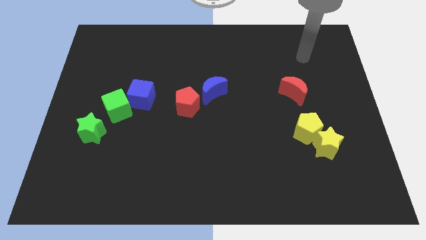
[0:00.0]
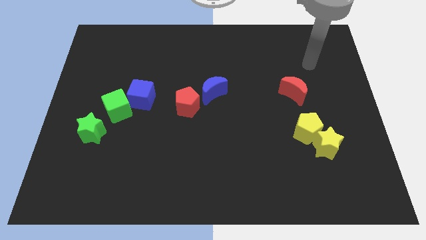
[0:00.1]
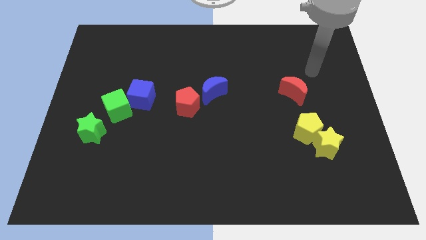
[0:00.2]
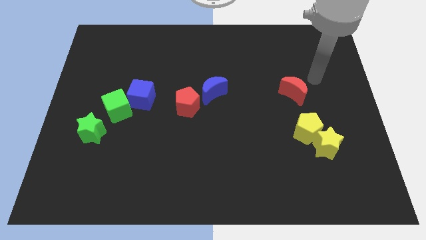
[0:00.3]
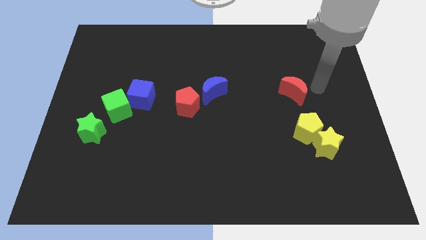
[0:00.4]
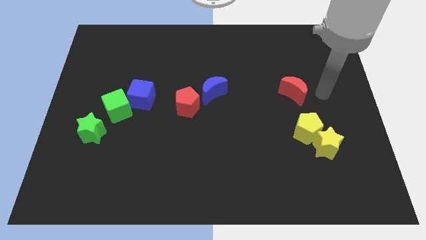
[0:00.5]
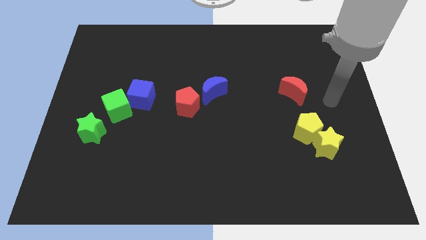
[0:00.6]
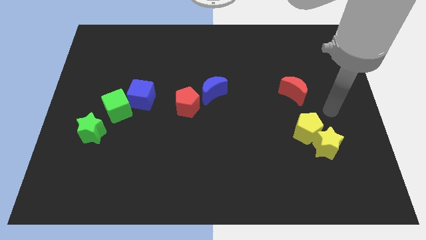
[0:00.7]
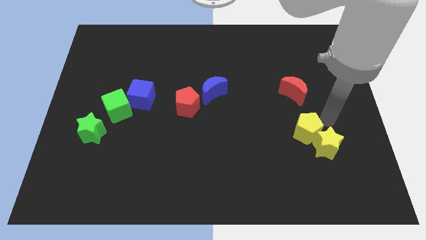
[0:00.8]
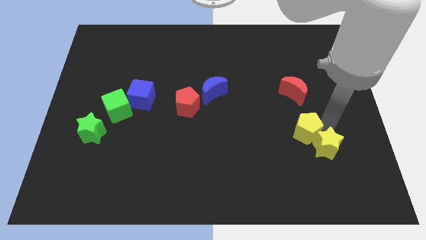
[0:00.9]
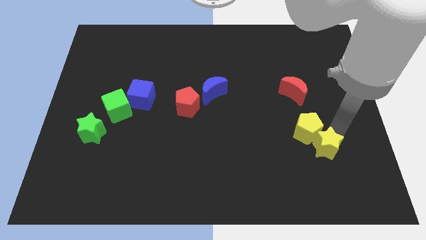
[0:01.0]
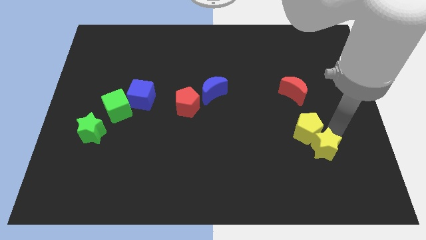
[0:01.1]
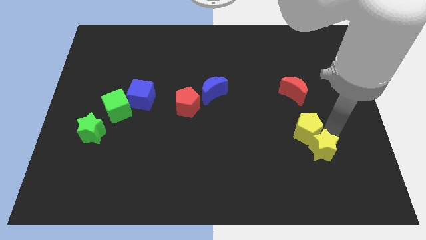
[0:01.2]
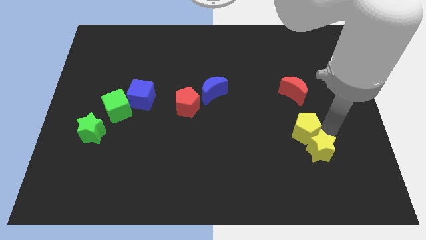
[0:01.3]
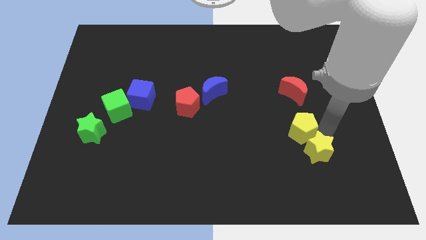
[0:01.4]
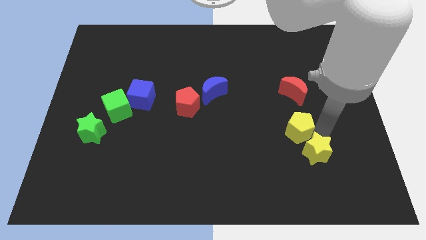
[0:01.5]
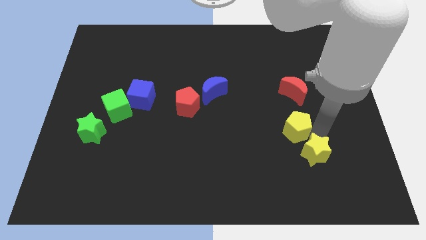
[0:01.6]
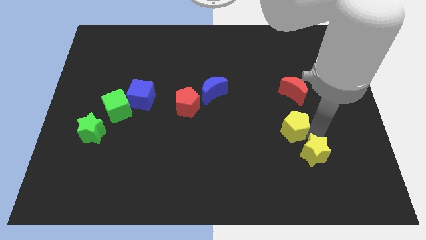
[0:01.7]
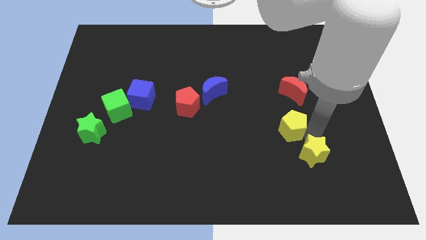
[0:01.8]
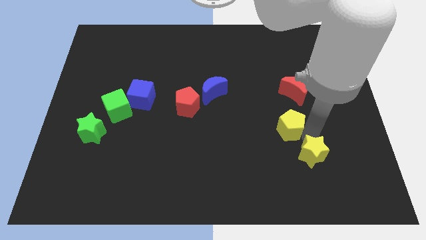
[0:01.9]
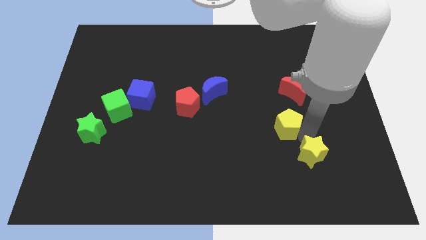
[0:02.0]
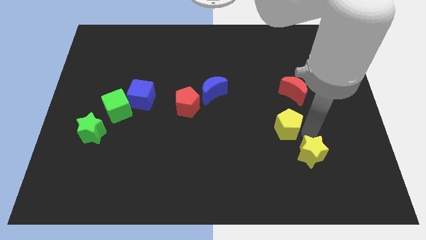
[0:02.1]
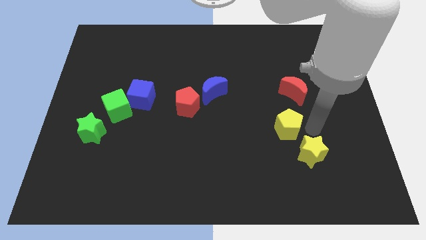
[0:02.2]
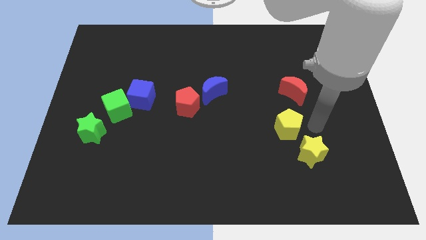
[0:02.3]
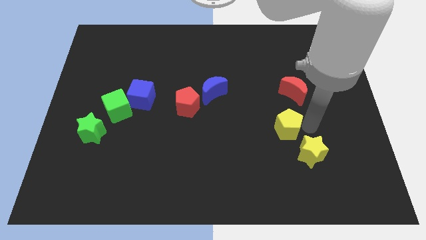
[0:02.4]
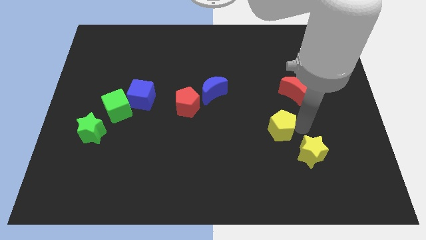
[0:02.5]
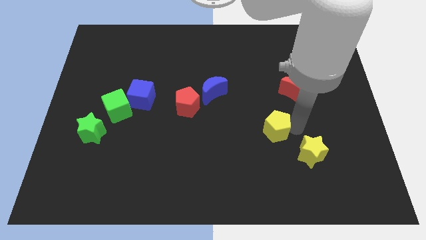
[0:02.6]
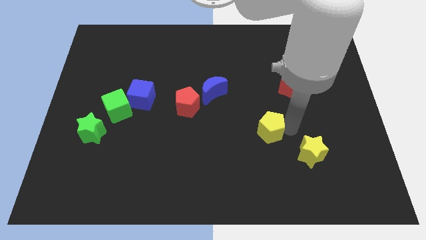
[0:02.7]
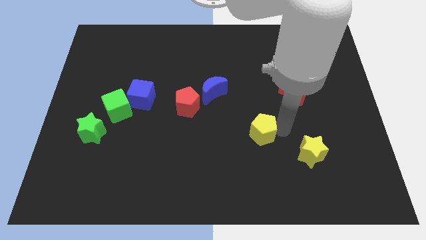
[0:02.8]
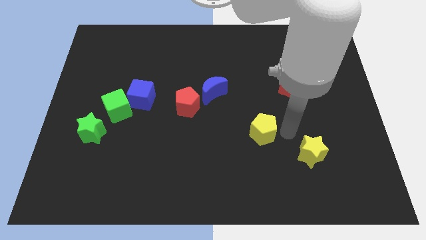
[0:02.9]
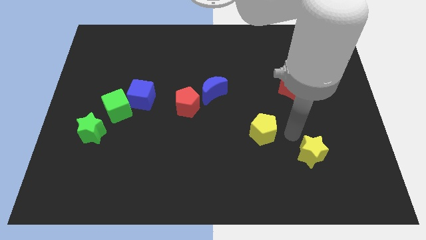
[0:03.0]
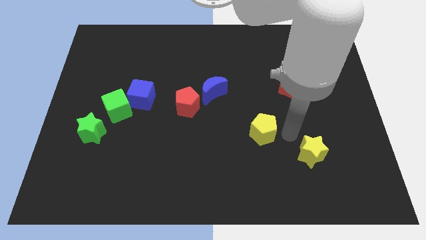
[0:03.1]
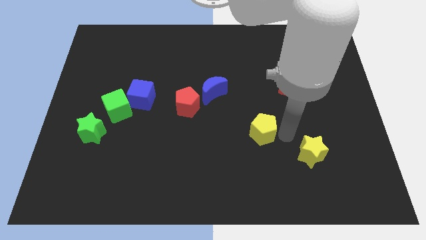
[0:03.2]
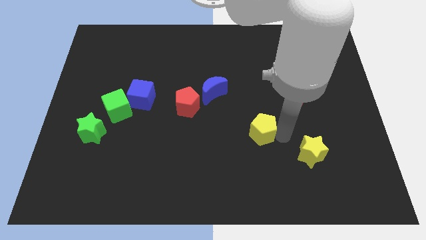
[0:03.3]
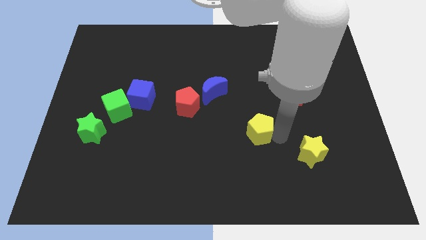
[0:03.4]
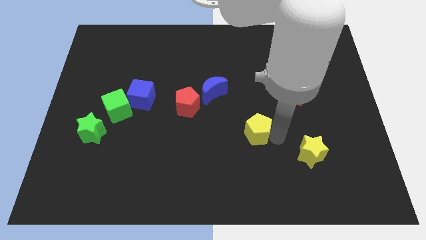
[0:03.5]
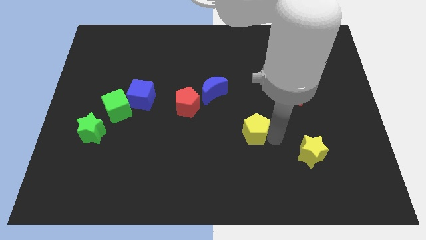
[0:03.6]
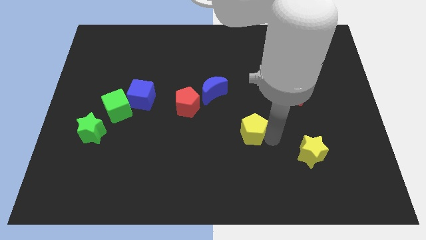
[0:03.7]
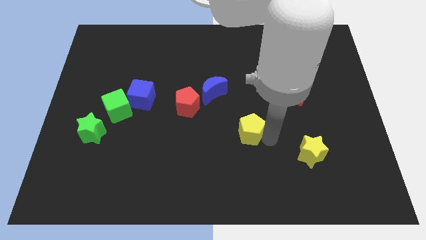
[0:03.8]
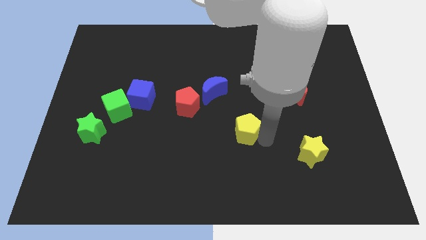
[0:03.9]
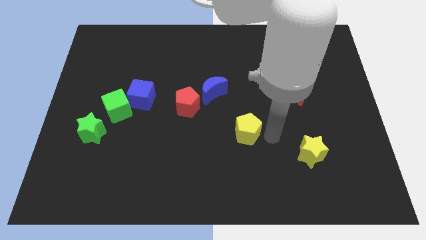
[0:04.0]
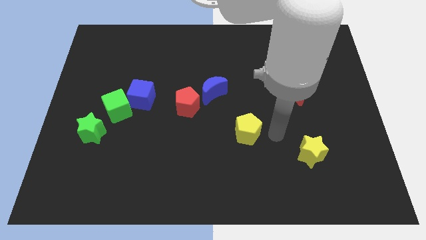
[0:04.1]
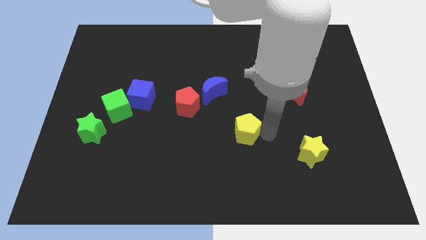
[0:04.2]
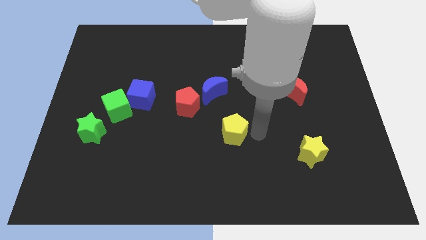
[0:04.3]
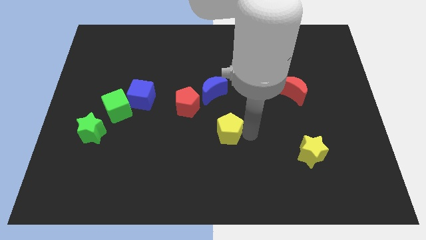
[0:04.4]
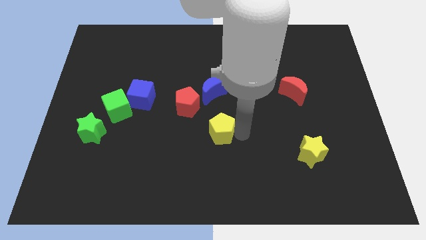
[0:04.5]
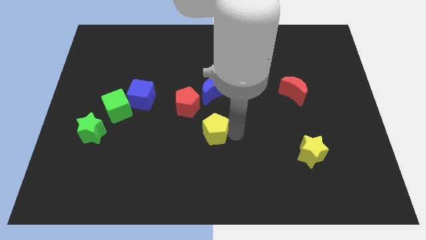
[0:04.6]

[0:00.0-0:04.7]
slide the yellow pentagon to the left

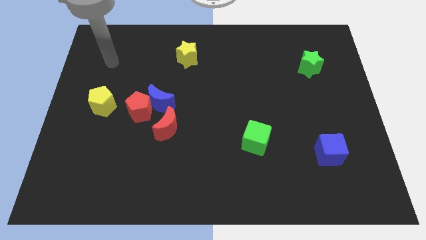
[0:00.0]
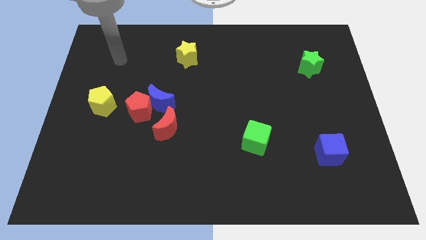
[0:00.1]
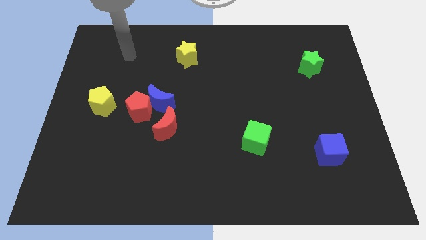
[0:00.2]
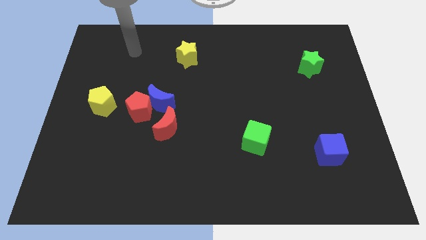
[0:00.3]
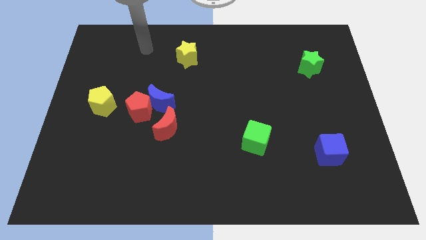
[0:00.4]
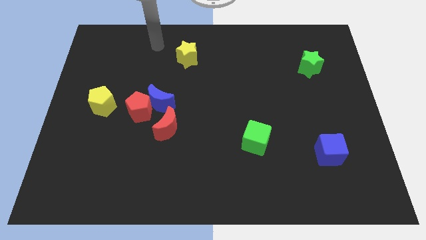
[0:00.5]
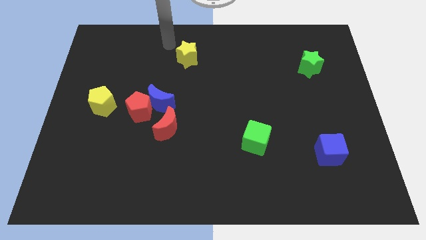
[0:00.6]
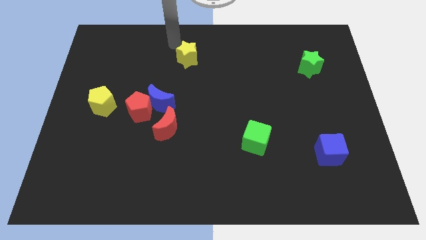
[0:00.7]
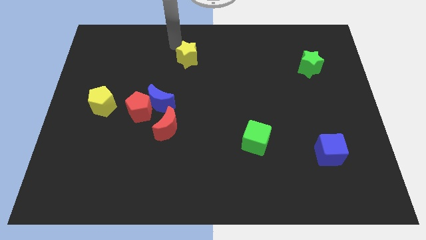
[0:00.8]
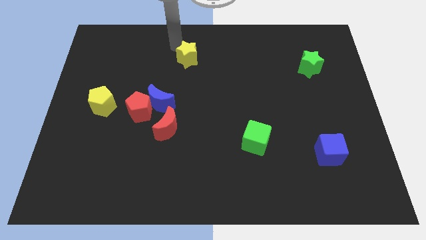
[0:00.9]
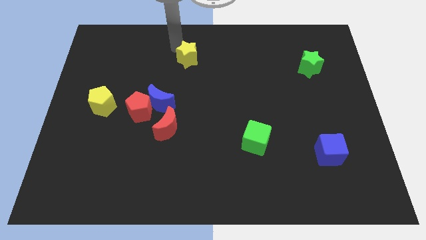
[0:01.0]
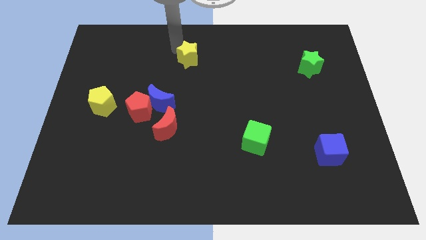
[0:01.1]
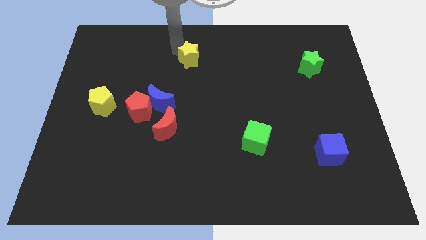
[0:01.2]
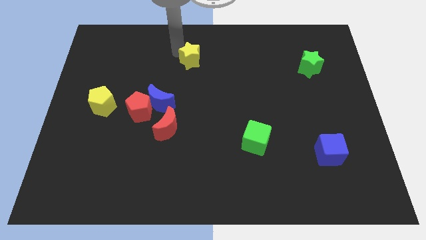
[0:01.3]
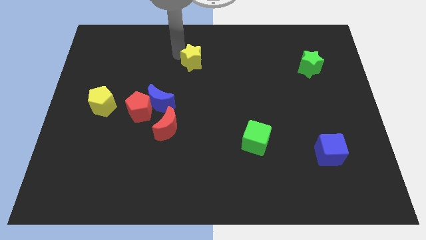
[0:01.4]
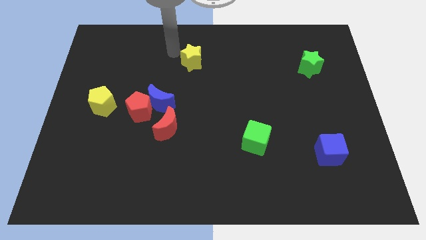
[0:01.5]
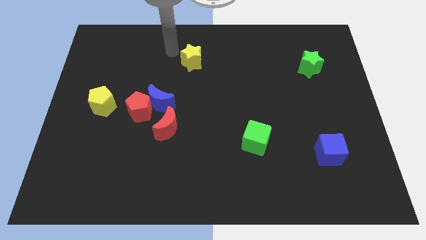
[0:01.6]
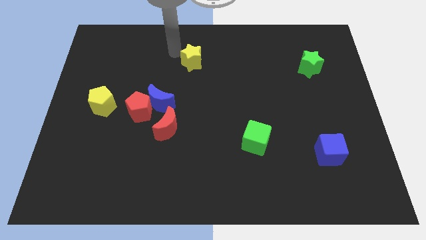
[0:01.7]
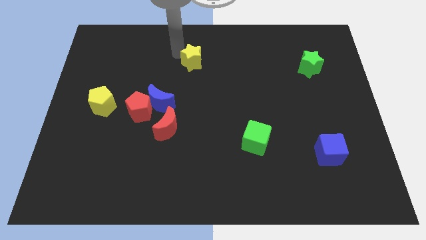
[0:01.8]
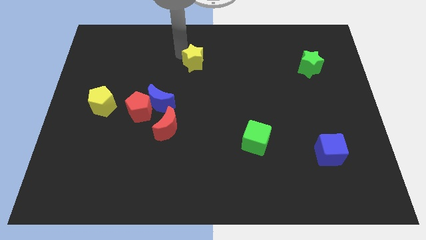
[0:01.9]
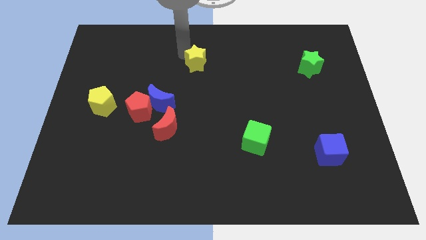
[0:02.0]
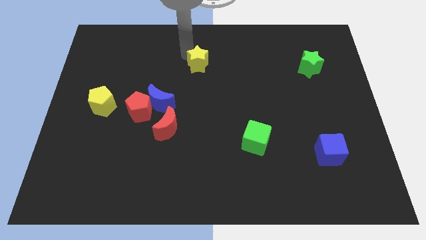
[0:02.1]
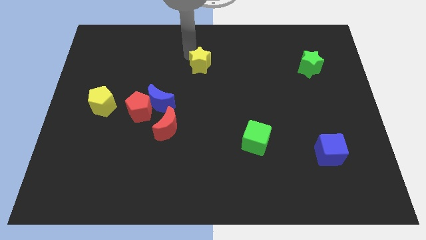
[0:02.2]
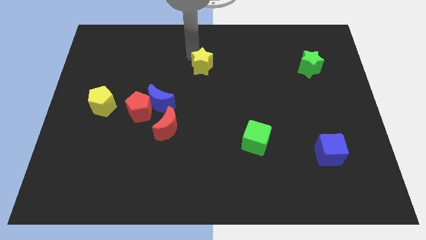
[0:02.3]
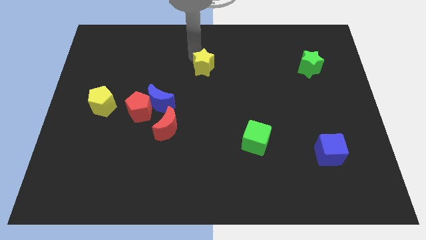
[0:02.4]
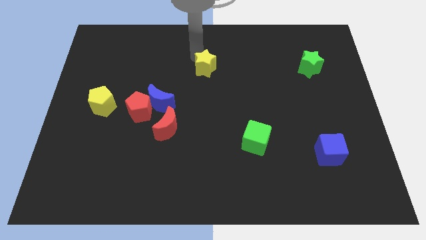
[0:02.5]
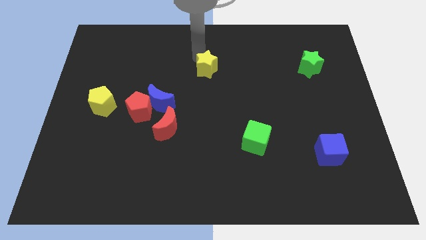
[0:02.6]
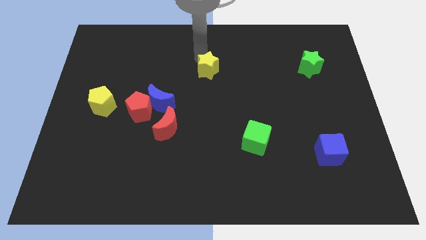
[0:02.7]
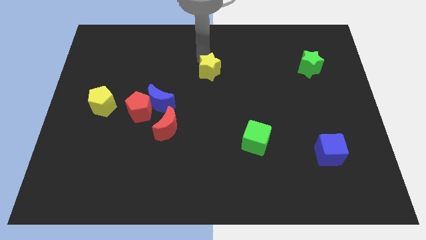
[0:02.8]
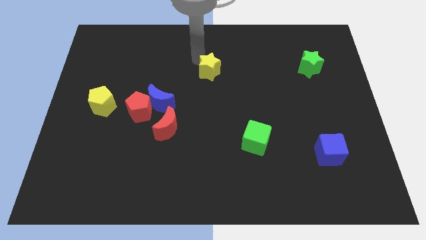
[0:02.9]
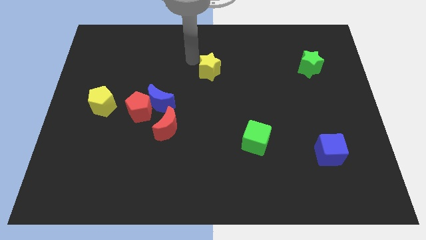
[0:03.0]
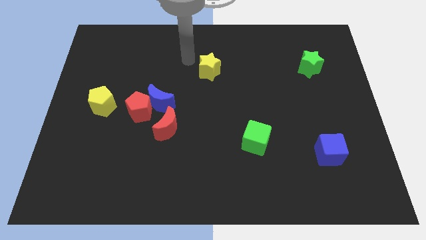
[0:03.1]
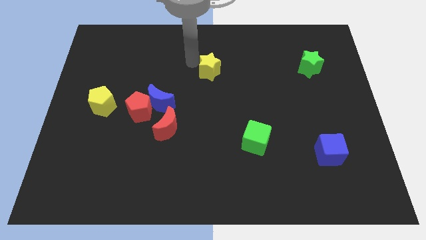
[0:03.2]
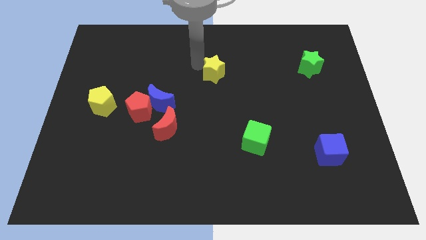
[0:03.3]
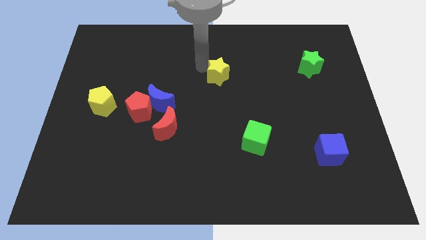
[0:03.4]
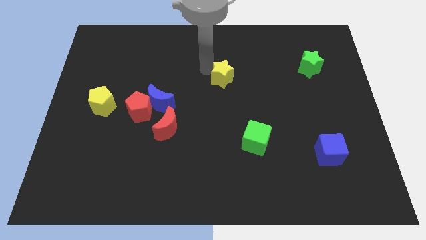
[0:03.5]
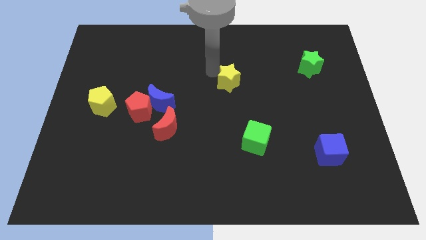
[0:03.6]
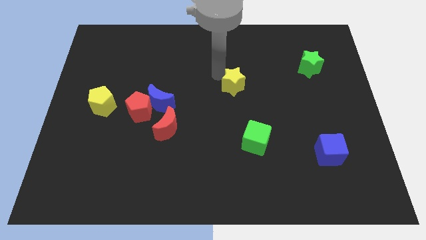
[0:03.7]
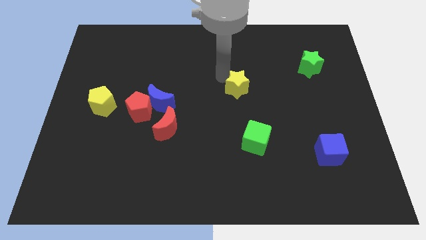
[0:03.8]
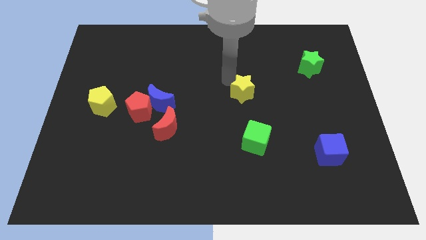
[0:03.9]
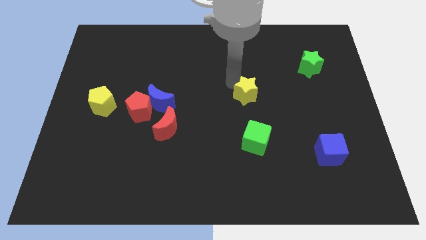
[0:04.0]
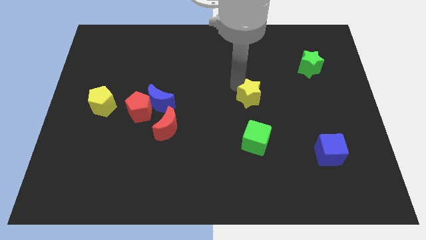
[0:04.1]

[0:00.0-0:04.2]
slide the yellow star down and right diagonally
